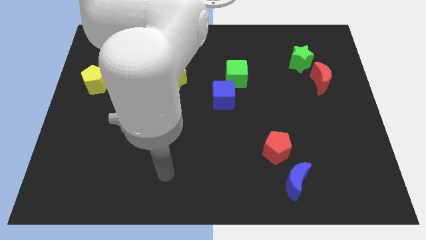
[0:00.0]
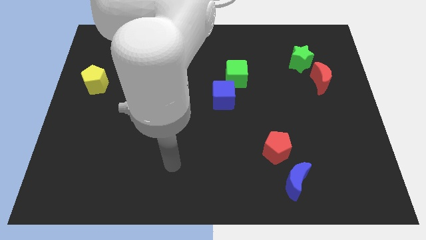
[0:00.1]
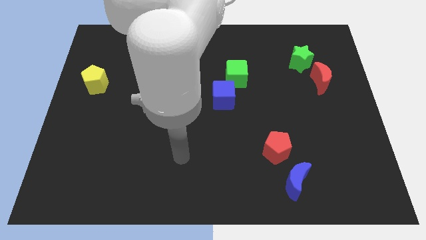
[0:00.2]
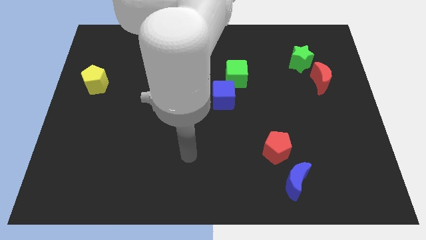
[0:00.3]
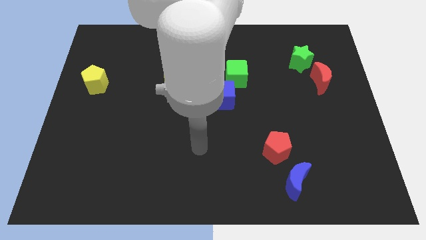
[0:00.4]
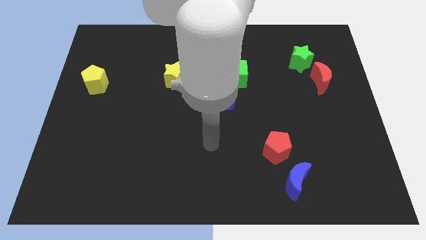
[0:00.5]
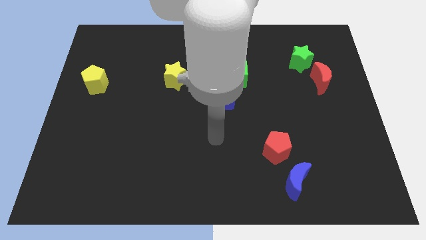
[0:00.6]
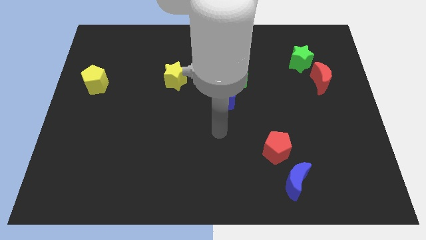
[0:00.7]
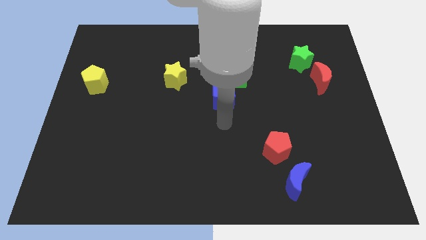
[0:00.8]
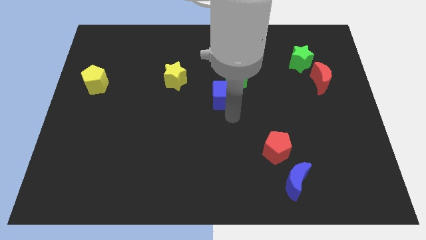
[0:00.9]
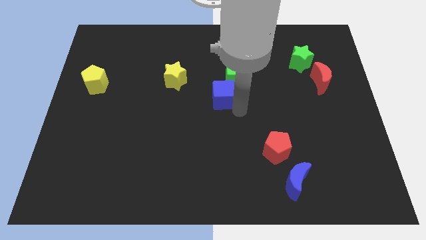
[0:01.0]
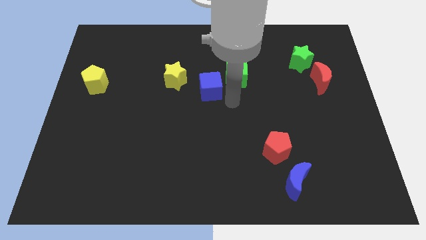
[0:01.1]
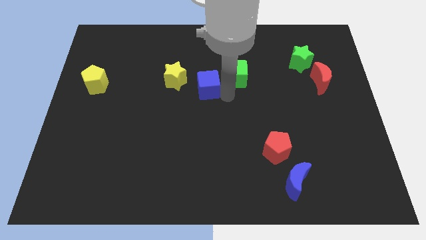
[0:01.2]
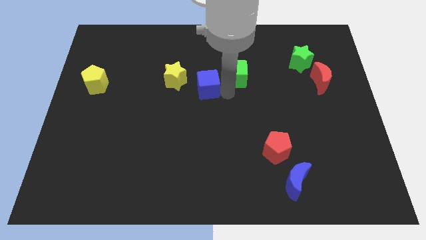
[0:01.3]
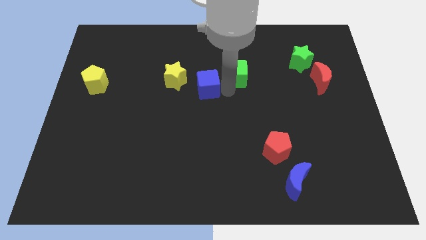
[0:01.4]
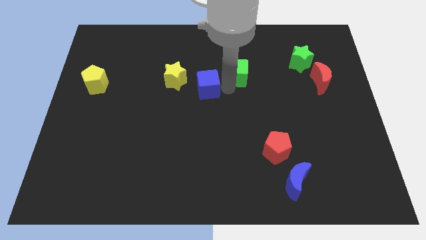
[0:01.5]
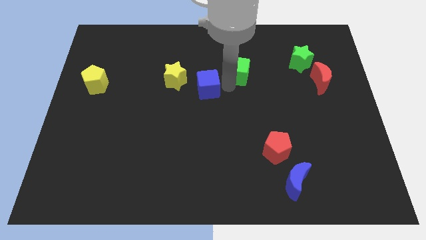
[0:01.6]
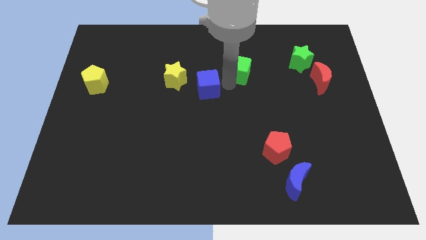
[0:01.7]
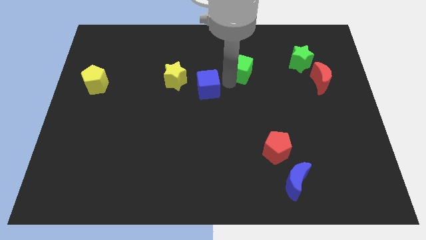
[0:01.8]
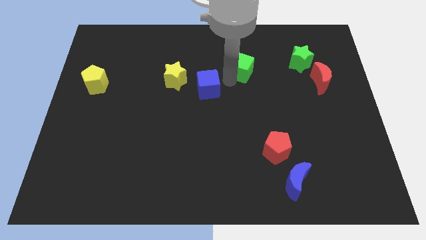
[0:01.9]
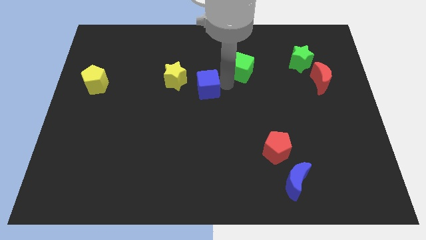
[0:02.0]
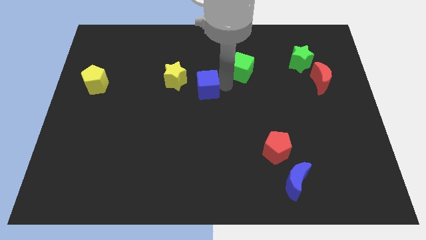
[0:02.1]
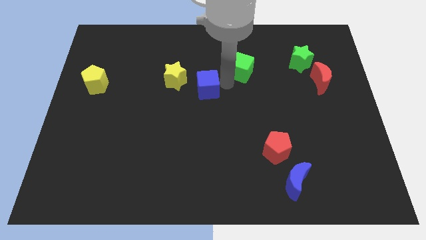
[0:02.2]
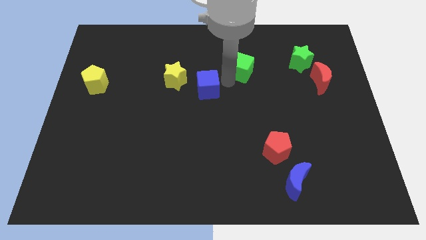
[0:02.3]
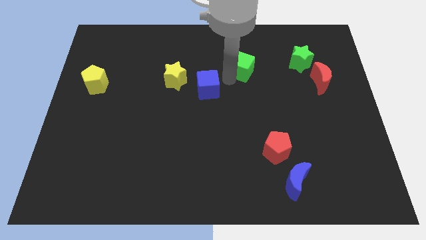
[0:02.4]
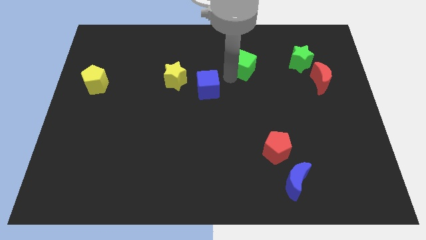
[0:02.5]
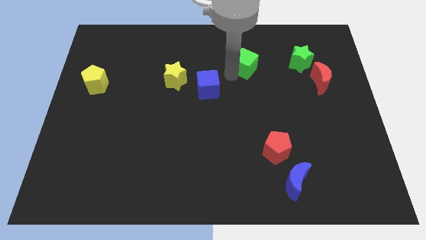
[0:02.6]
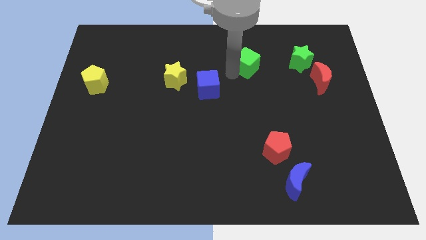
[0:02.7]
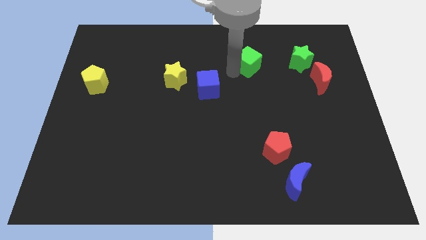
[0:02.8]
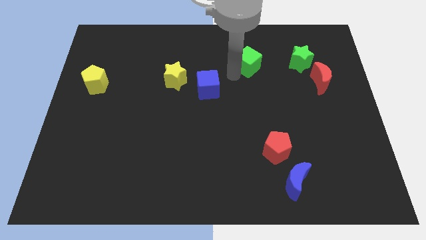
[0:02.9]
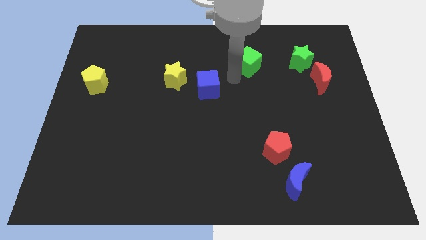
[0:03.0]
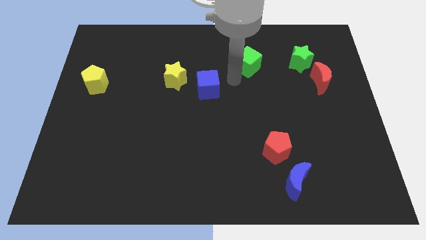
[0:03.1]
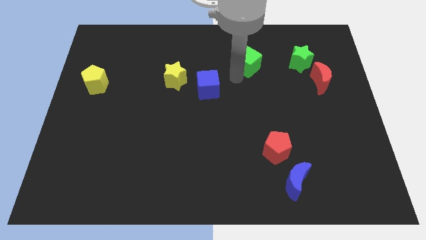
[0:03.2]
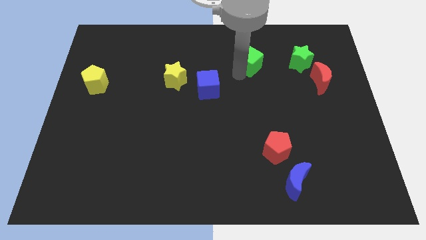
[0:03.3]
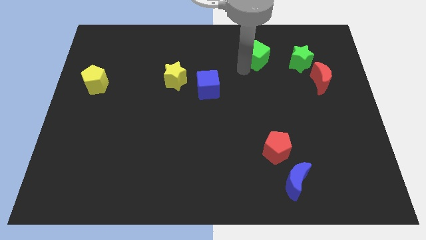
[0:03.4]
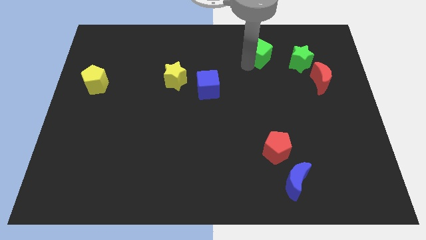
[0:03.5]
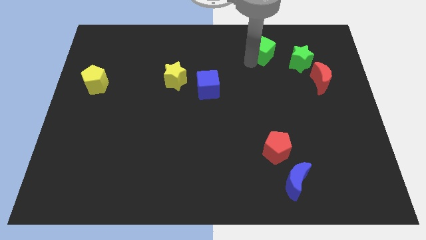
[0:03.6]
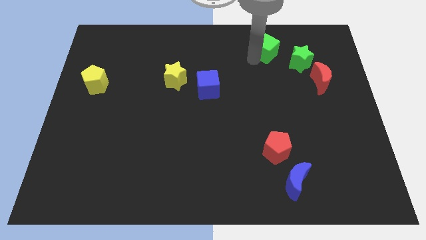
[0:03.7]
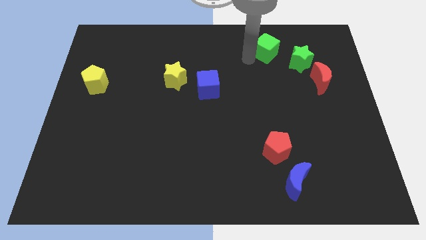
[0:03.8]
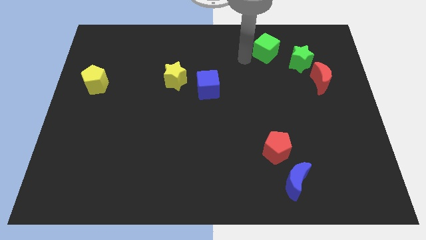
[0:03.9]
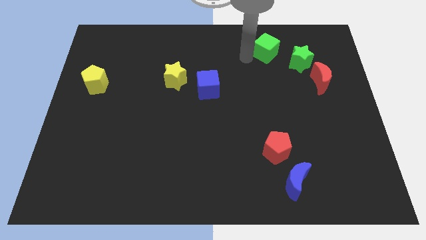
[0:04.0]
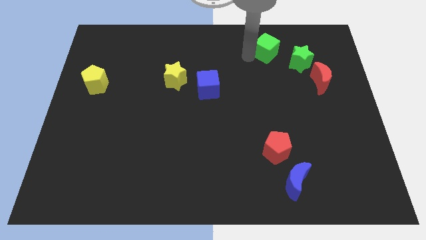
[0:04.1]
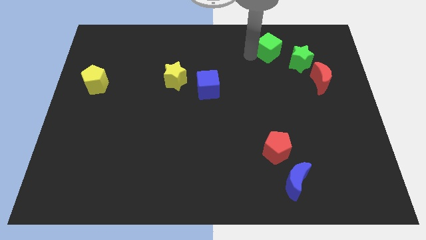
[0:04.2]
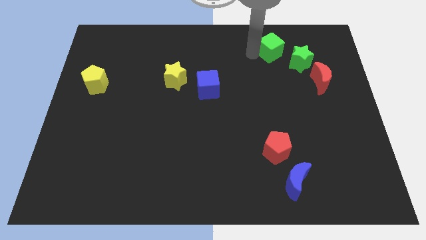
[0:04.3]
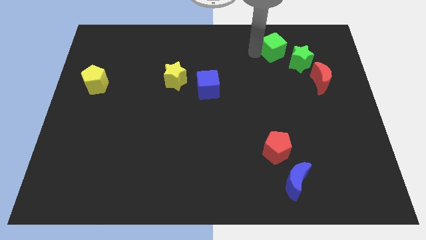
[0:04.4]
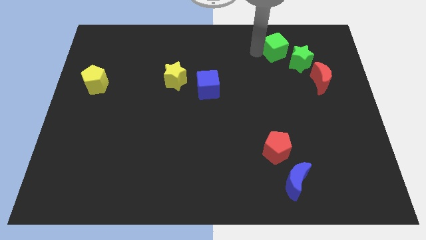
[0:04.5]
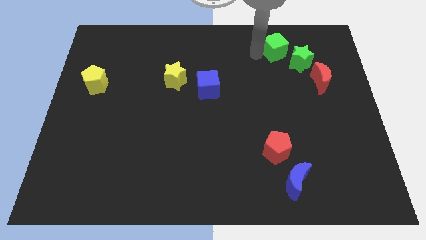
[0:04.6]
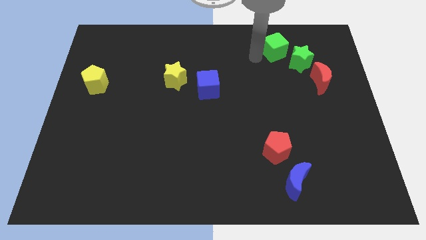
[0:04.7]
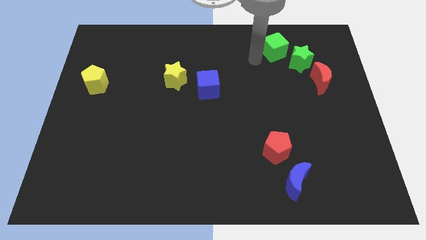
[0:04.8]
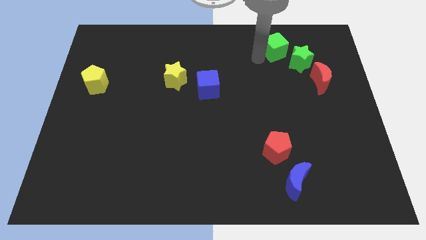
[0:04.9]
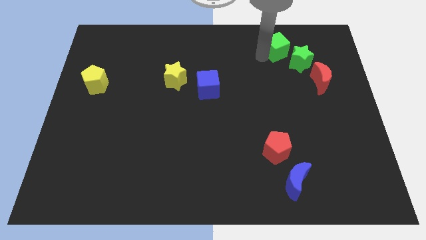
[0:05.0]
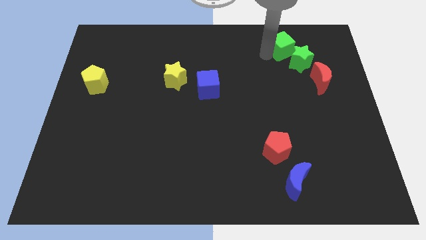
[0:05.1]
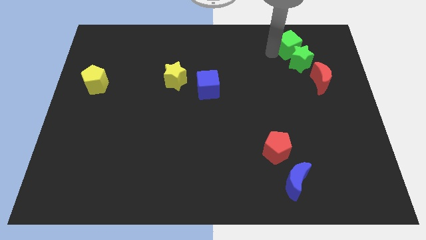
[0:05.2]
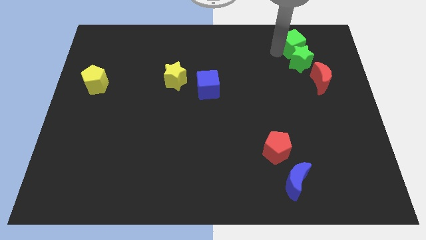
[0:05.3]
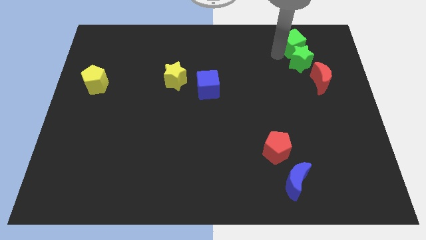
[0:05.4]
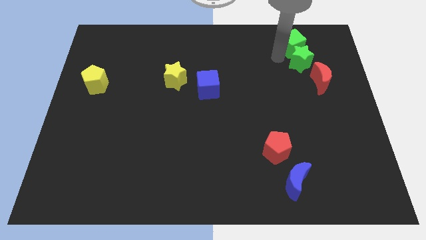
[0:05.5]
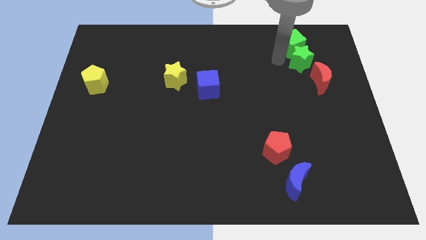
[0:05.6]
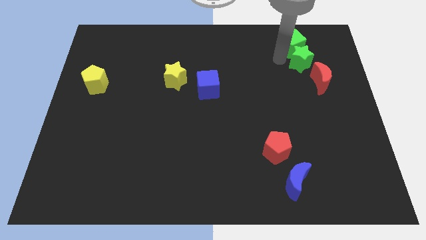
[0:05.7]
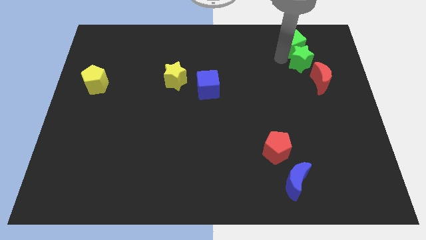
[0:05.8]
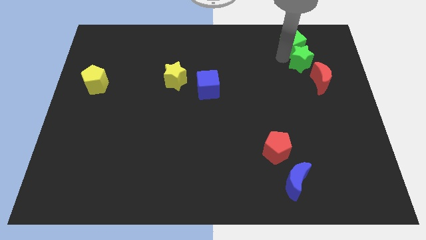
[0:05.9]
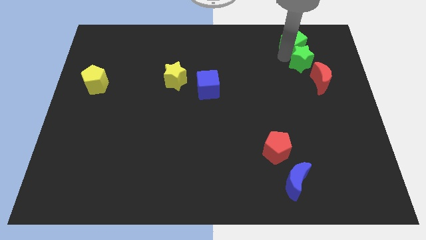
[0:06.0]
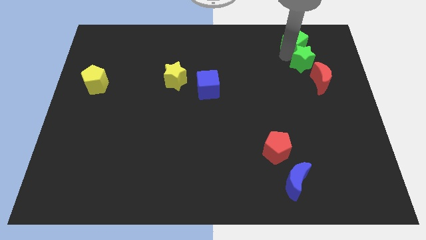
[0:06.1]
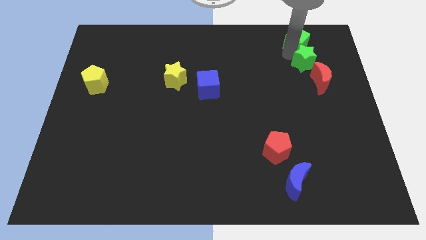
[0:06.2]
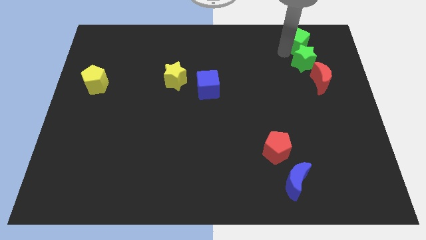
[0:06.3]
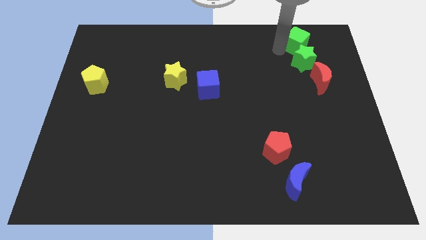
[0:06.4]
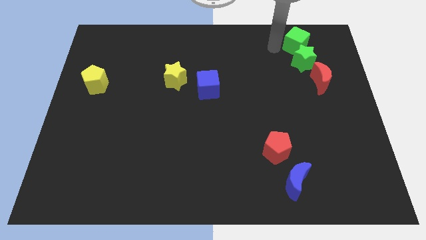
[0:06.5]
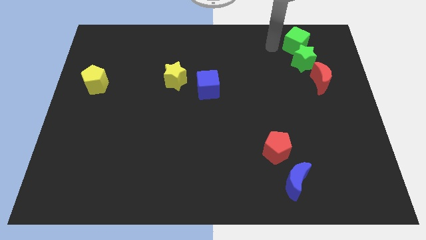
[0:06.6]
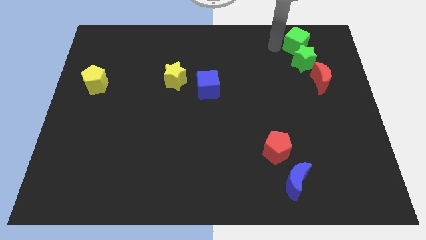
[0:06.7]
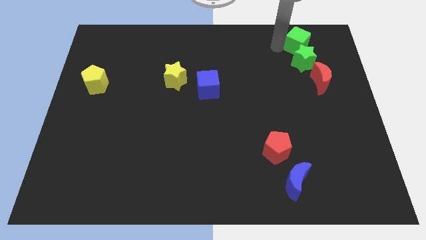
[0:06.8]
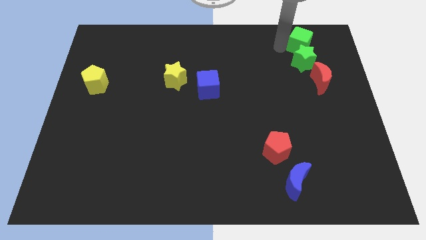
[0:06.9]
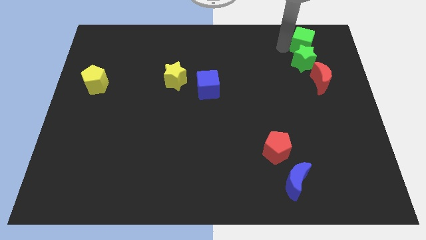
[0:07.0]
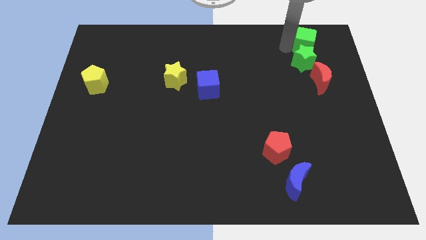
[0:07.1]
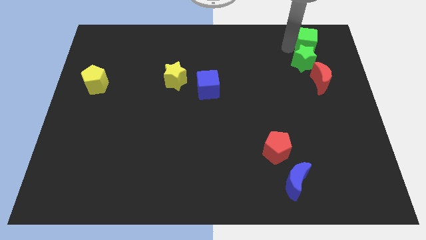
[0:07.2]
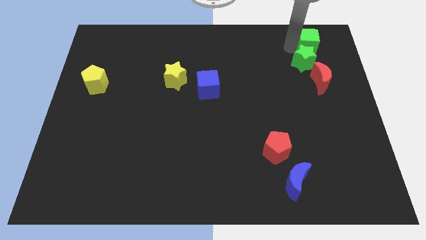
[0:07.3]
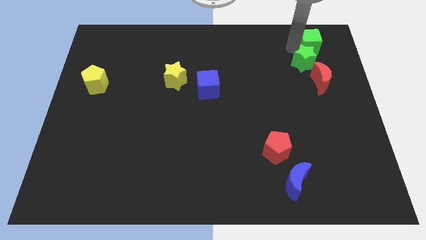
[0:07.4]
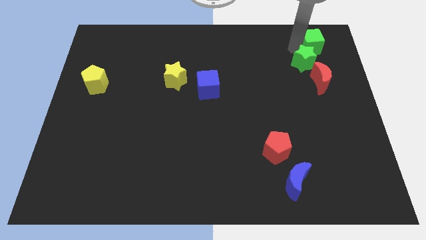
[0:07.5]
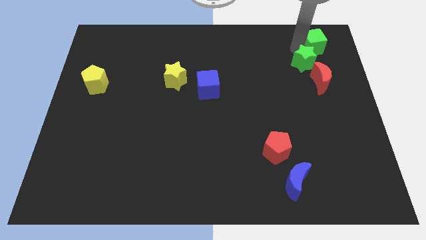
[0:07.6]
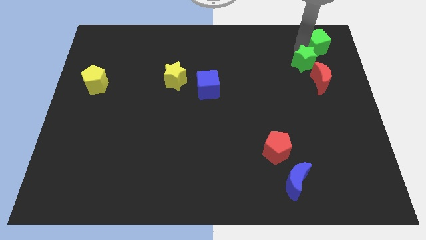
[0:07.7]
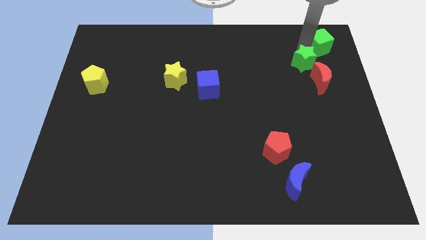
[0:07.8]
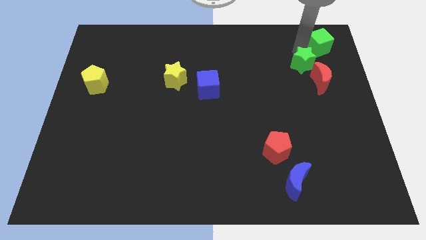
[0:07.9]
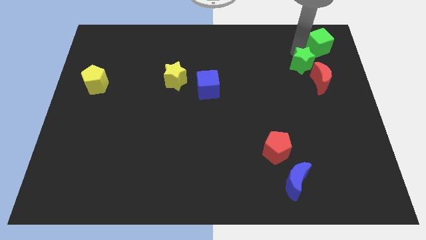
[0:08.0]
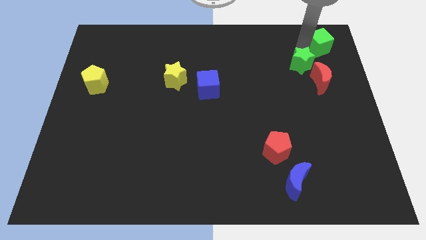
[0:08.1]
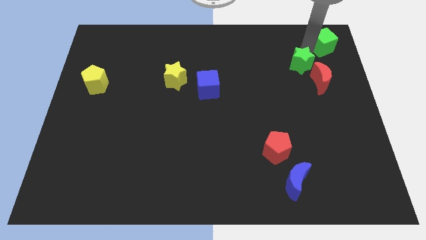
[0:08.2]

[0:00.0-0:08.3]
slide the green cube to the top right of the board
